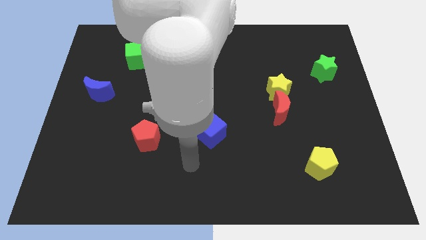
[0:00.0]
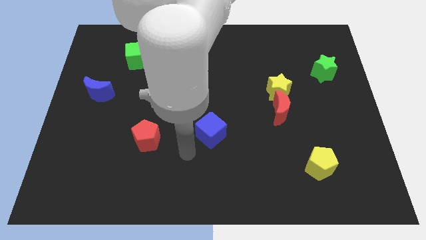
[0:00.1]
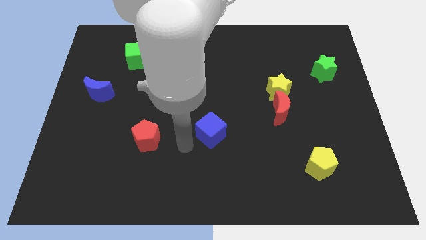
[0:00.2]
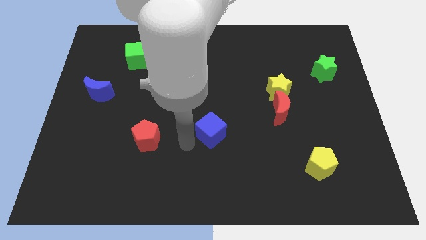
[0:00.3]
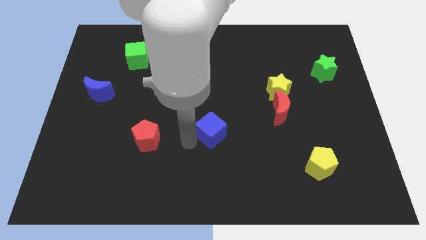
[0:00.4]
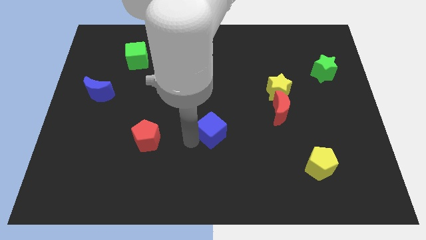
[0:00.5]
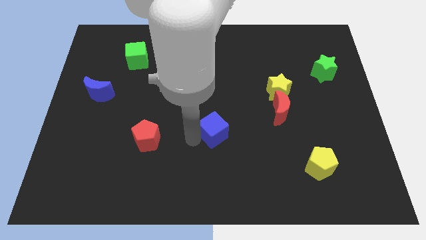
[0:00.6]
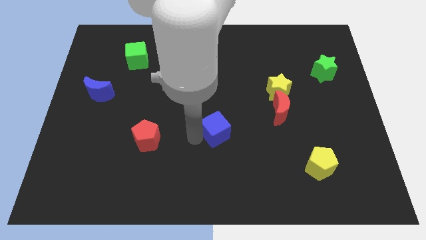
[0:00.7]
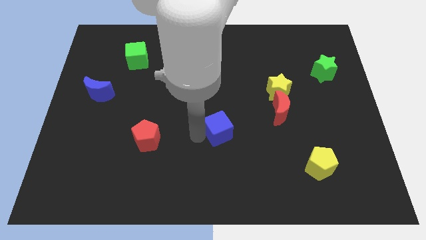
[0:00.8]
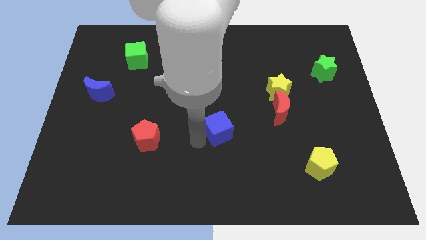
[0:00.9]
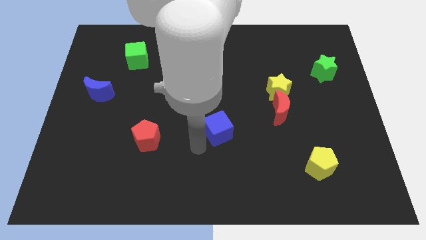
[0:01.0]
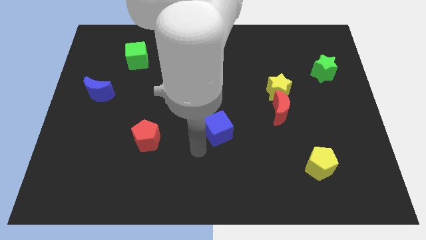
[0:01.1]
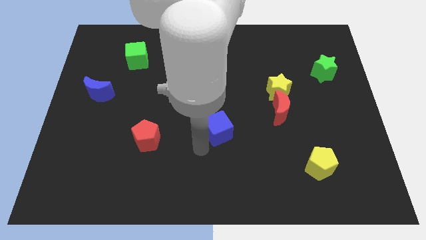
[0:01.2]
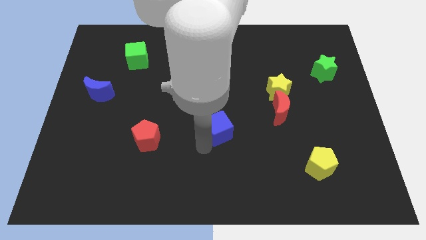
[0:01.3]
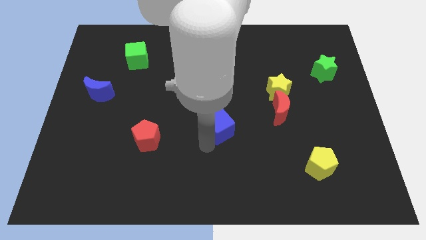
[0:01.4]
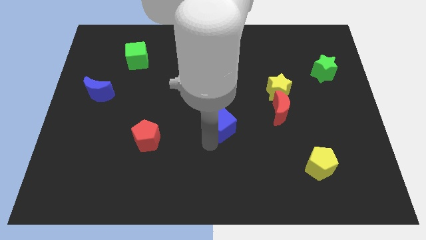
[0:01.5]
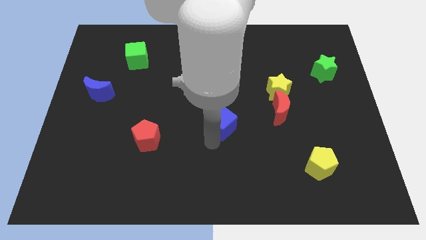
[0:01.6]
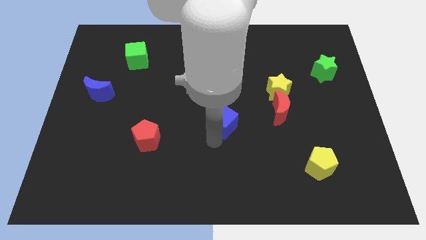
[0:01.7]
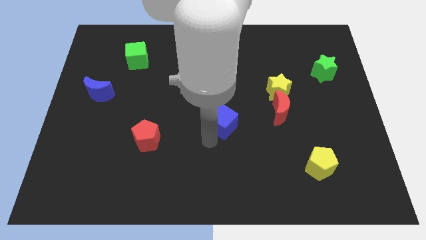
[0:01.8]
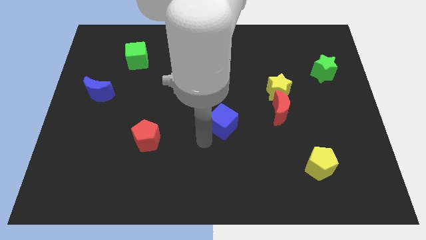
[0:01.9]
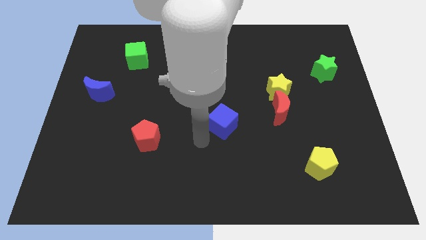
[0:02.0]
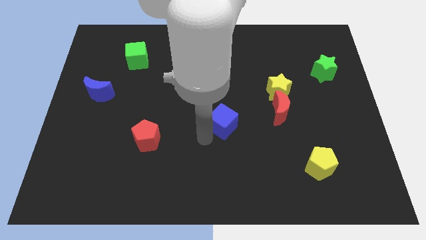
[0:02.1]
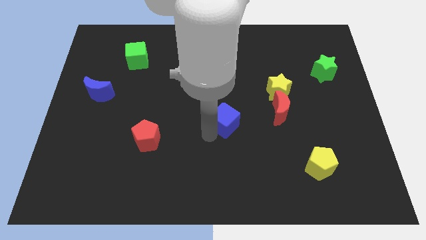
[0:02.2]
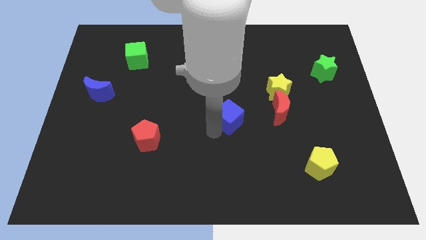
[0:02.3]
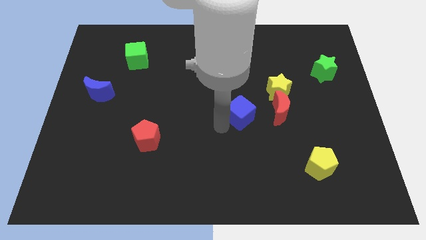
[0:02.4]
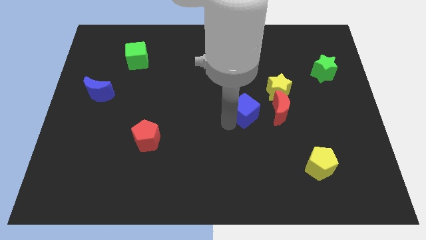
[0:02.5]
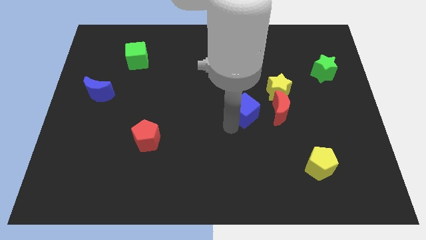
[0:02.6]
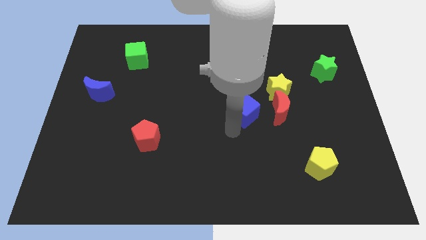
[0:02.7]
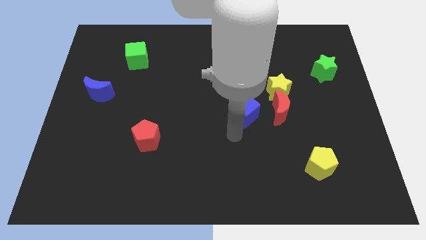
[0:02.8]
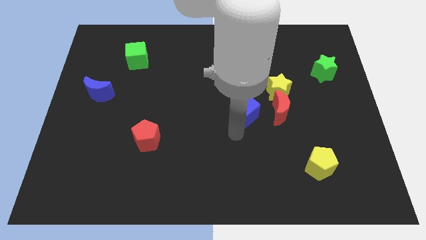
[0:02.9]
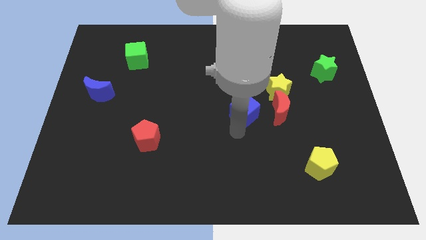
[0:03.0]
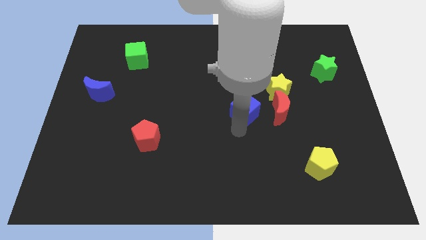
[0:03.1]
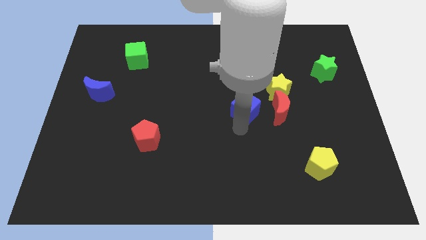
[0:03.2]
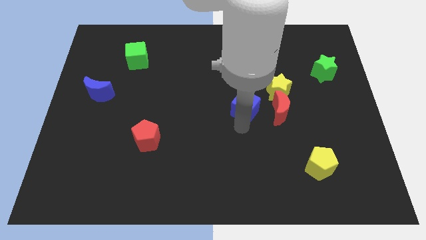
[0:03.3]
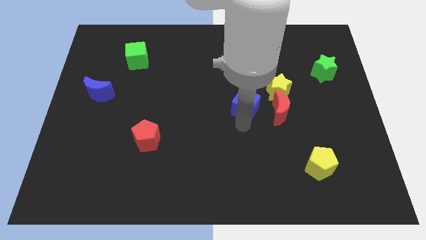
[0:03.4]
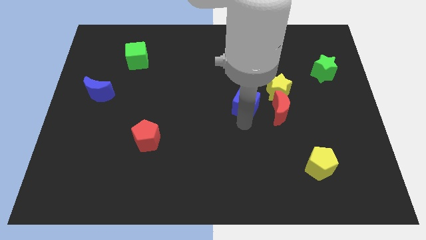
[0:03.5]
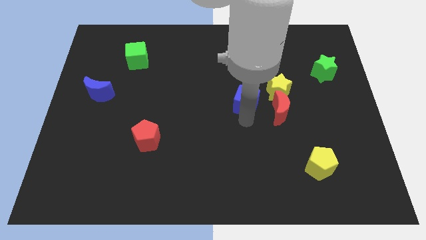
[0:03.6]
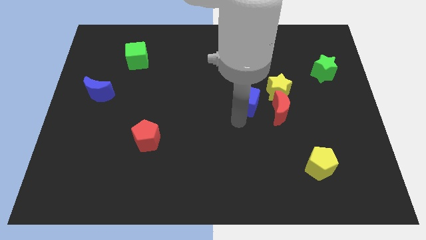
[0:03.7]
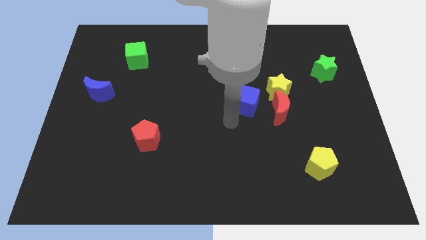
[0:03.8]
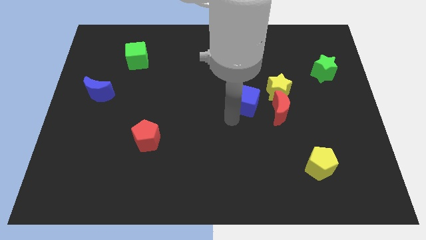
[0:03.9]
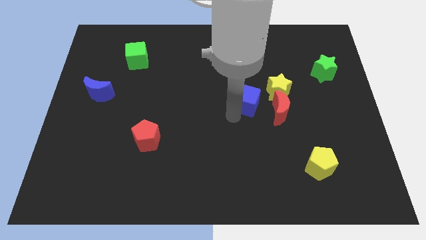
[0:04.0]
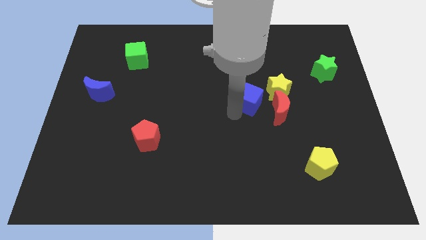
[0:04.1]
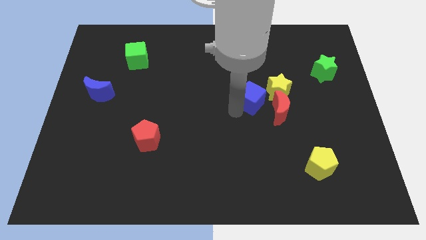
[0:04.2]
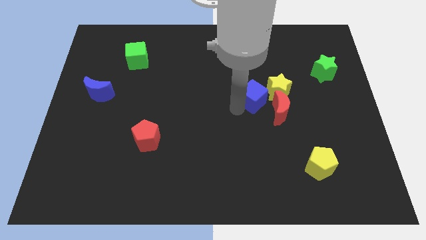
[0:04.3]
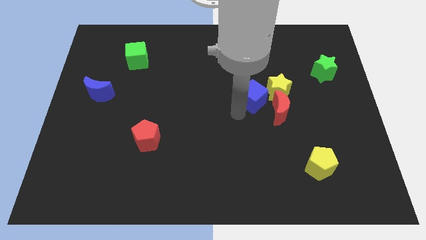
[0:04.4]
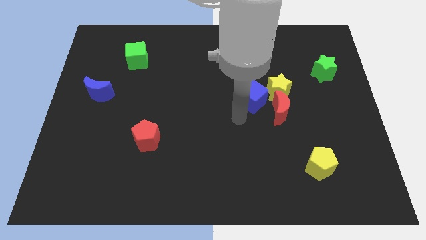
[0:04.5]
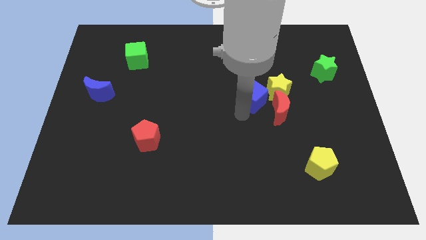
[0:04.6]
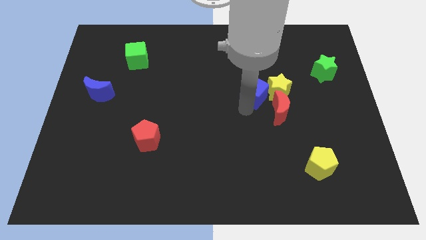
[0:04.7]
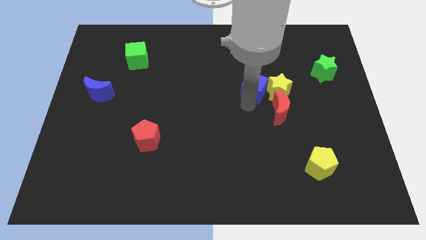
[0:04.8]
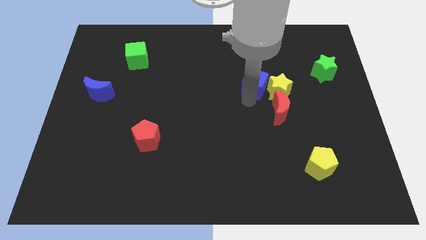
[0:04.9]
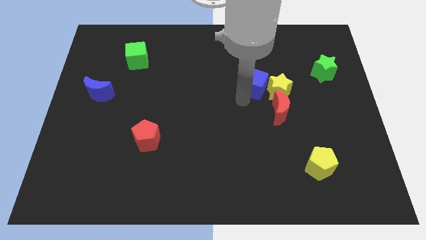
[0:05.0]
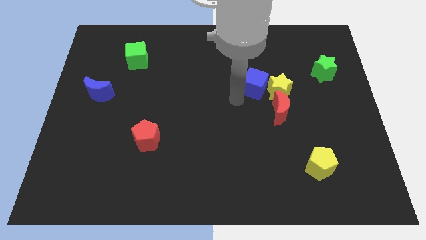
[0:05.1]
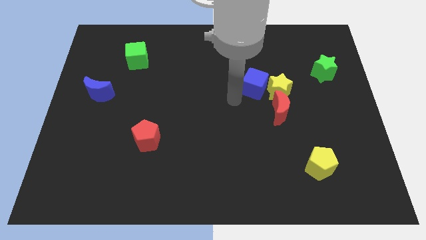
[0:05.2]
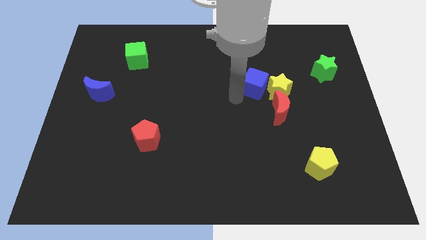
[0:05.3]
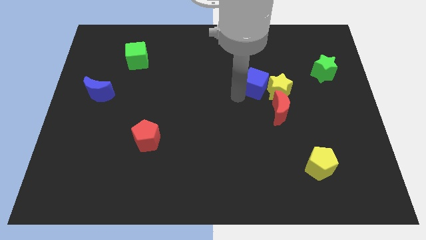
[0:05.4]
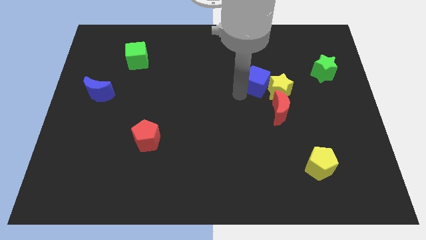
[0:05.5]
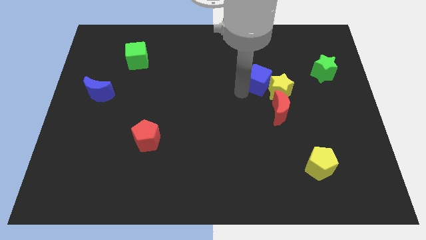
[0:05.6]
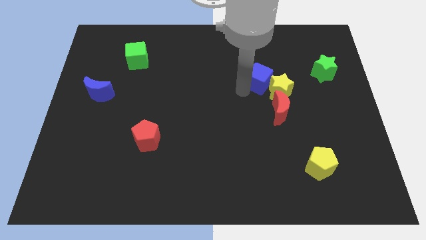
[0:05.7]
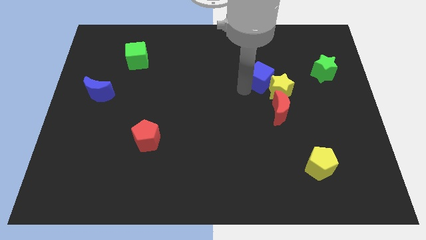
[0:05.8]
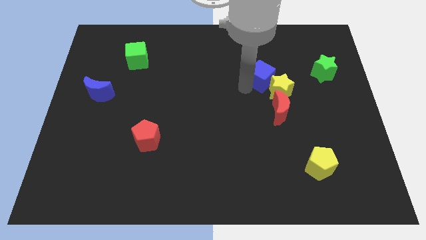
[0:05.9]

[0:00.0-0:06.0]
move the blue cube diagonally up and to the right

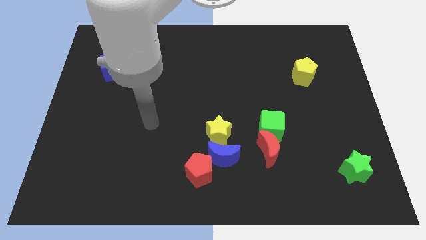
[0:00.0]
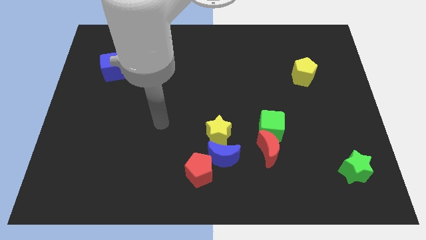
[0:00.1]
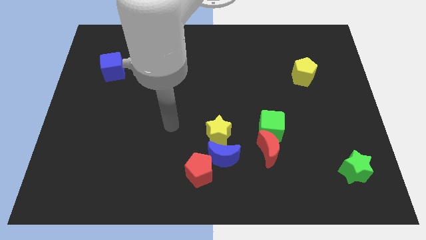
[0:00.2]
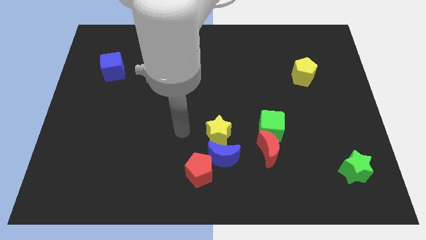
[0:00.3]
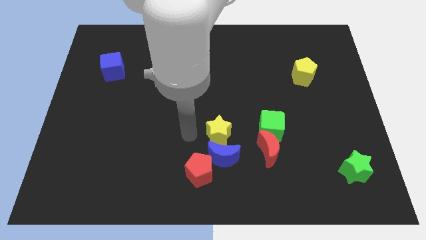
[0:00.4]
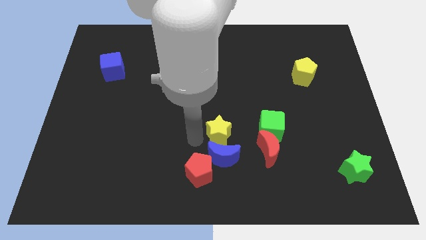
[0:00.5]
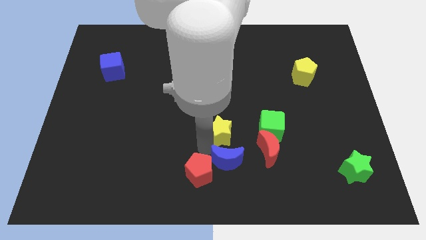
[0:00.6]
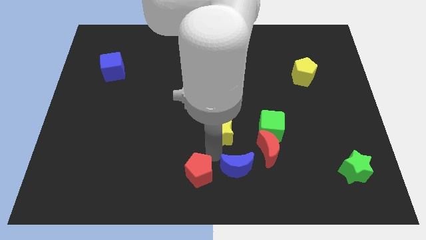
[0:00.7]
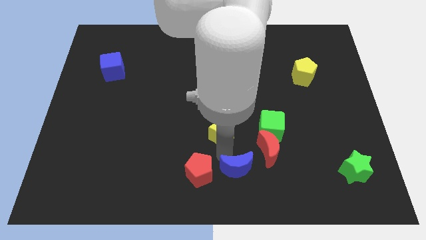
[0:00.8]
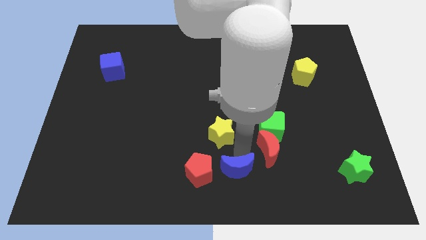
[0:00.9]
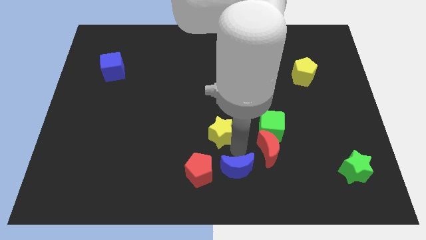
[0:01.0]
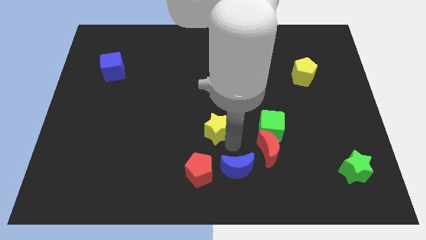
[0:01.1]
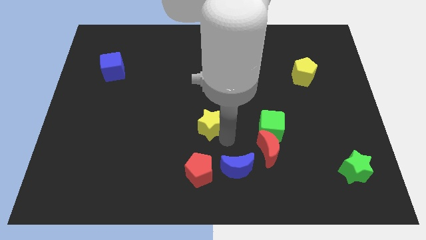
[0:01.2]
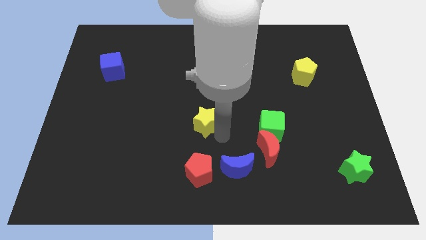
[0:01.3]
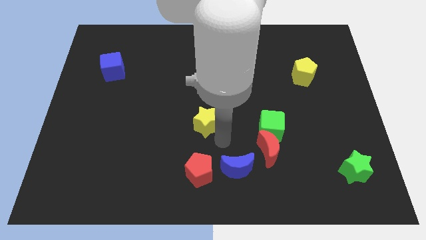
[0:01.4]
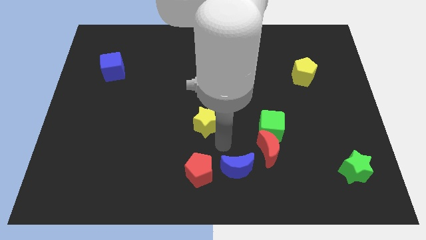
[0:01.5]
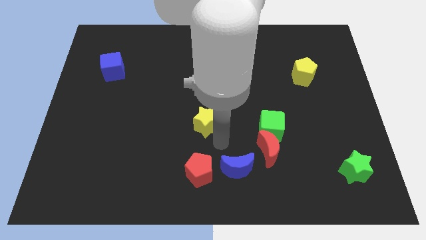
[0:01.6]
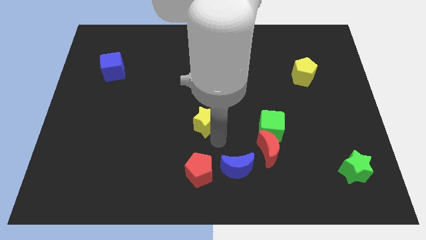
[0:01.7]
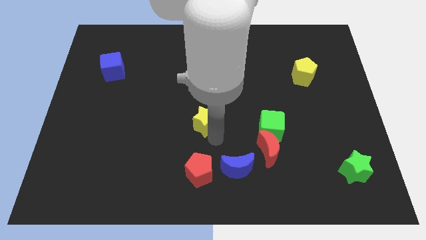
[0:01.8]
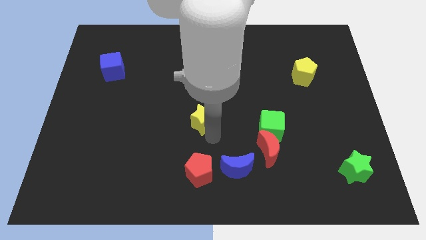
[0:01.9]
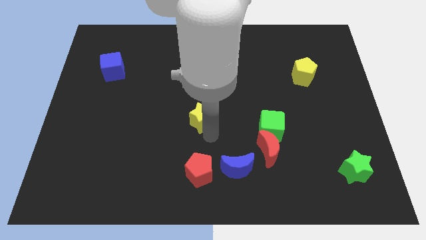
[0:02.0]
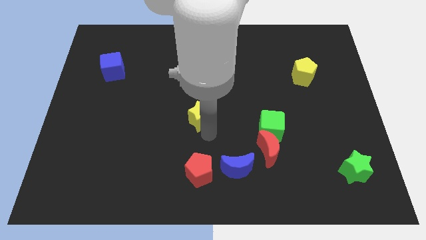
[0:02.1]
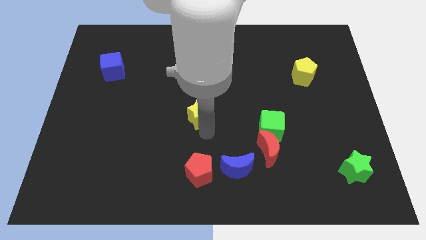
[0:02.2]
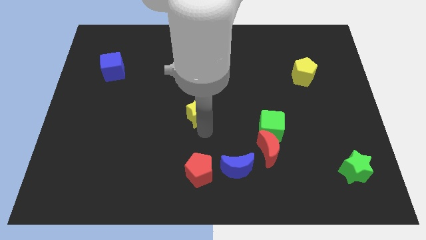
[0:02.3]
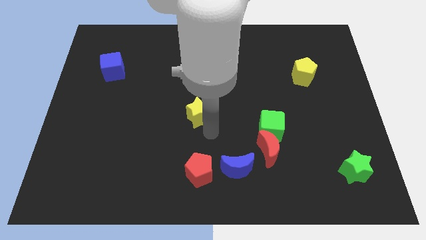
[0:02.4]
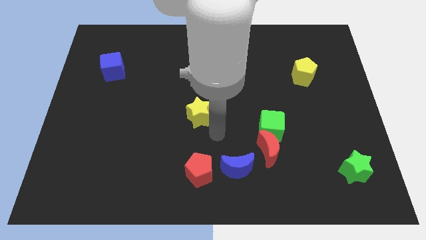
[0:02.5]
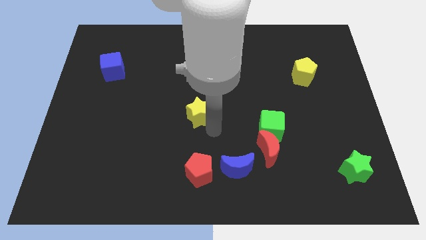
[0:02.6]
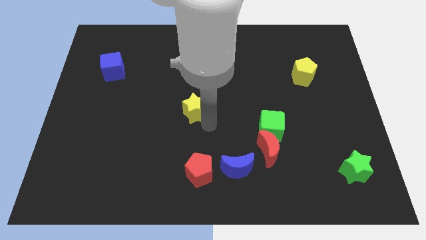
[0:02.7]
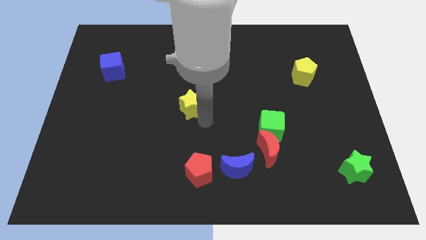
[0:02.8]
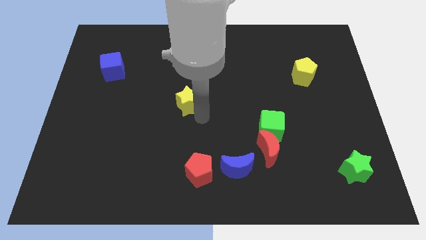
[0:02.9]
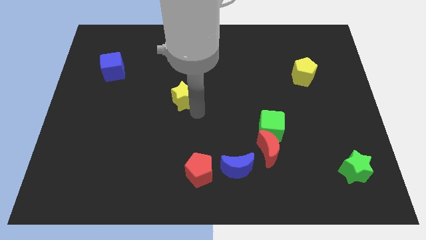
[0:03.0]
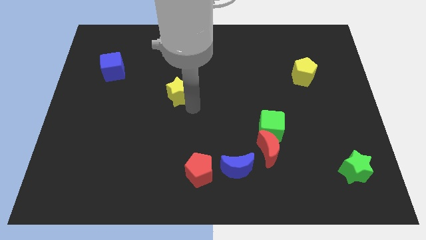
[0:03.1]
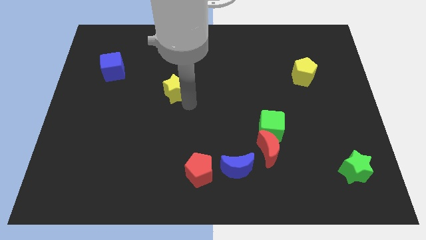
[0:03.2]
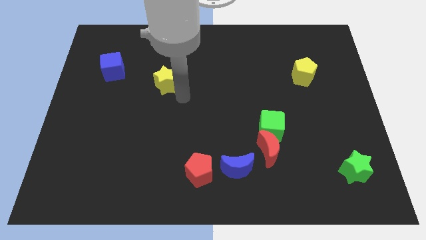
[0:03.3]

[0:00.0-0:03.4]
move the yellow star diagonally up and left
